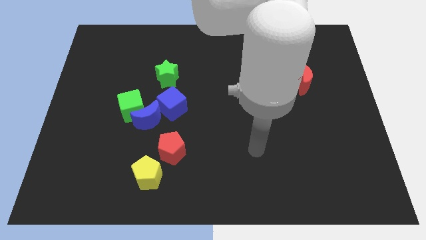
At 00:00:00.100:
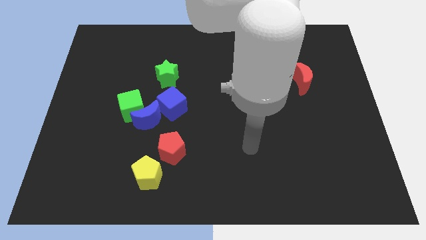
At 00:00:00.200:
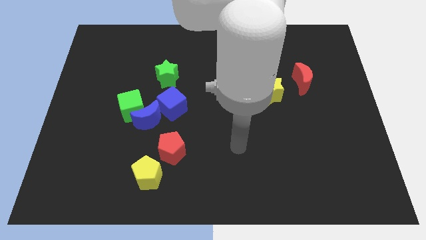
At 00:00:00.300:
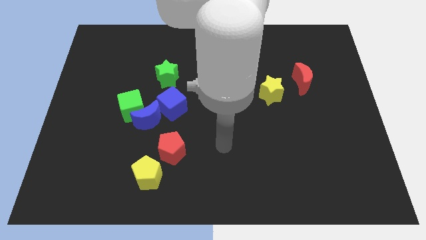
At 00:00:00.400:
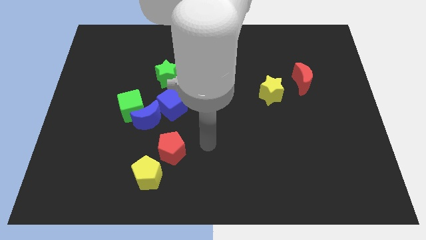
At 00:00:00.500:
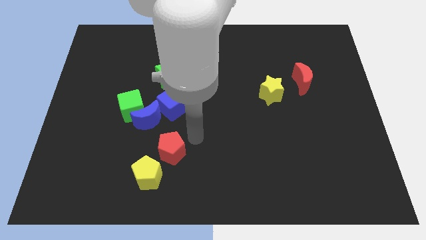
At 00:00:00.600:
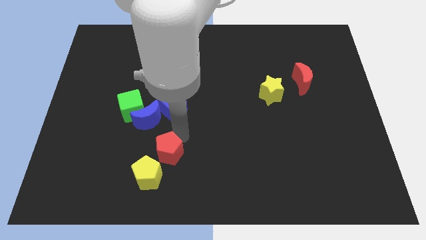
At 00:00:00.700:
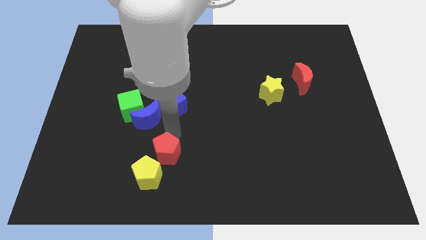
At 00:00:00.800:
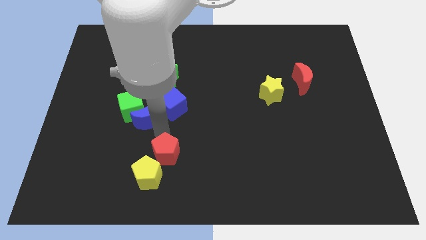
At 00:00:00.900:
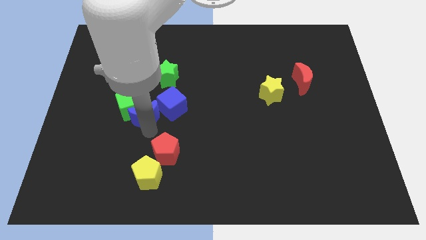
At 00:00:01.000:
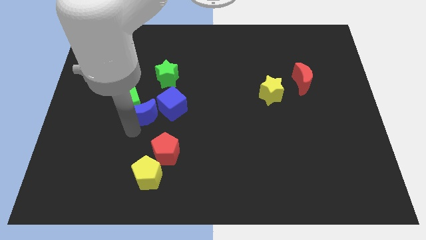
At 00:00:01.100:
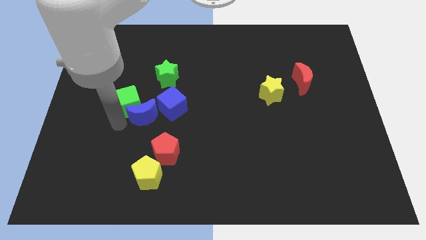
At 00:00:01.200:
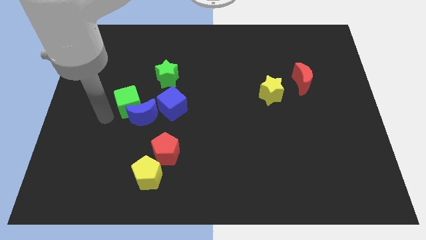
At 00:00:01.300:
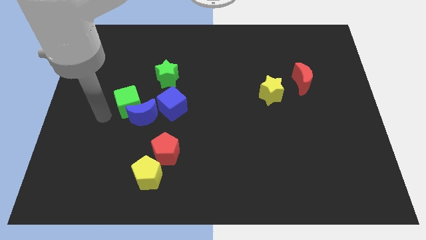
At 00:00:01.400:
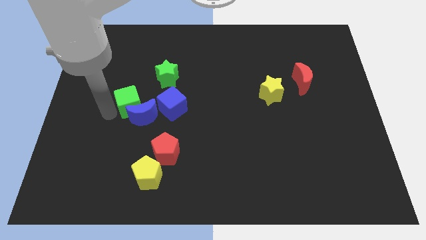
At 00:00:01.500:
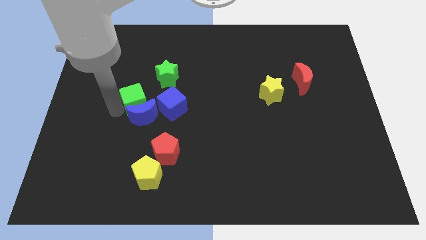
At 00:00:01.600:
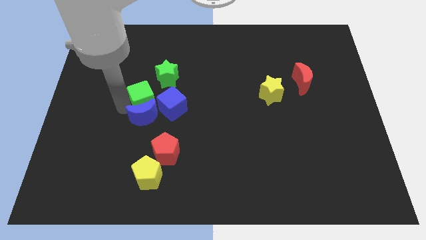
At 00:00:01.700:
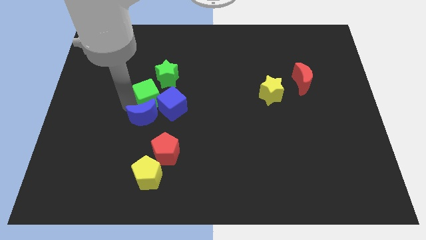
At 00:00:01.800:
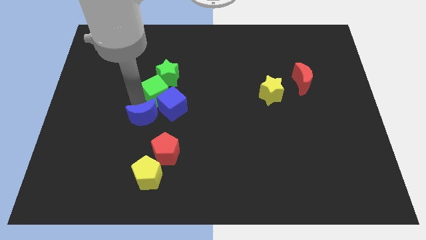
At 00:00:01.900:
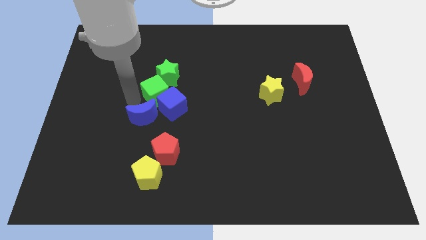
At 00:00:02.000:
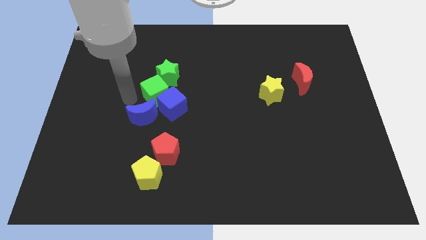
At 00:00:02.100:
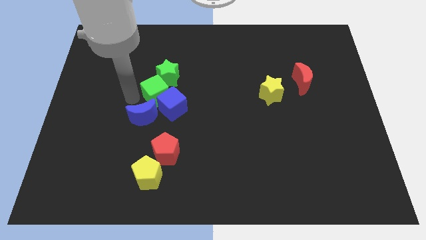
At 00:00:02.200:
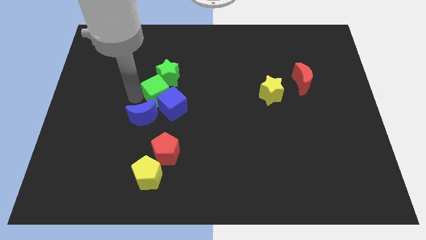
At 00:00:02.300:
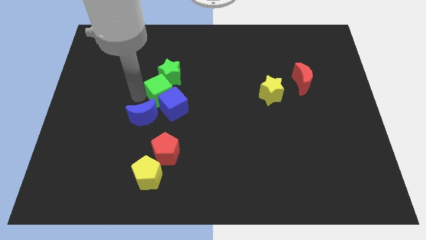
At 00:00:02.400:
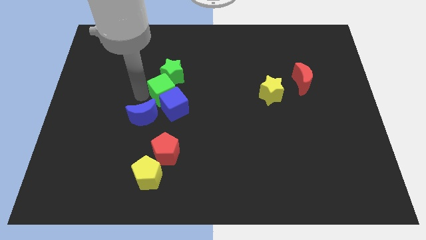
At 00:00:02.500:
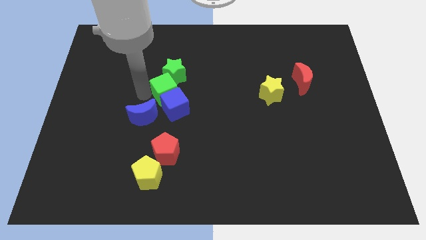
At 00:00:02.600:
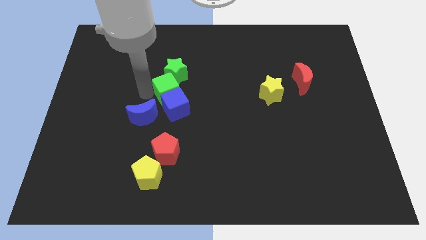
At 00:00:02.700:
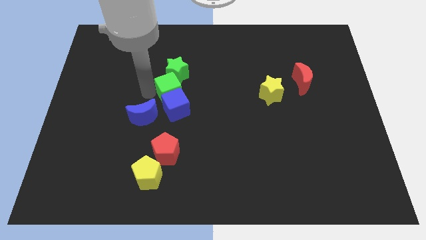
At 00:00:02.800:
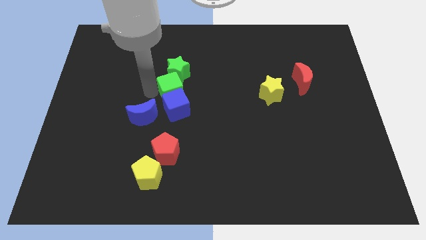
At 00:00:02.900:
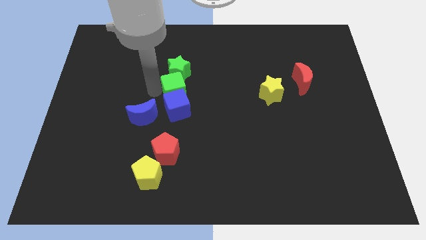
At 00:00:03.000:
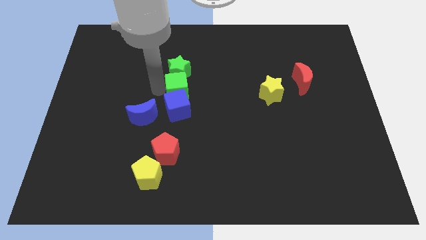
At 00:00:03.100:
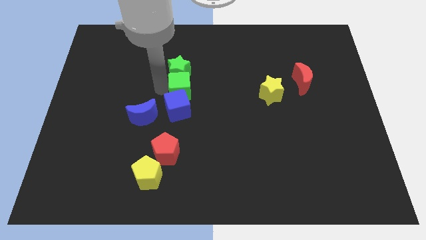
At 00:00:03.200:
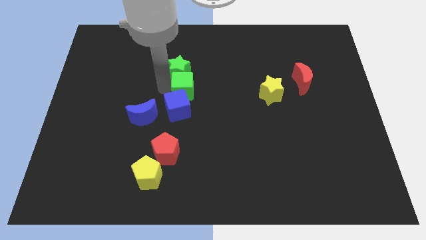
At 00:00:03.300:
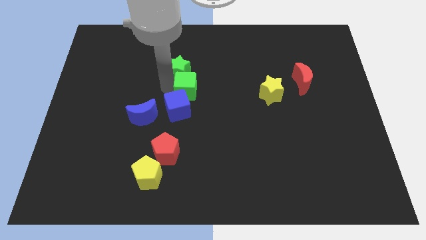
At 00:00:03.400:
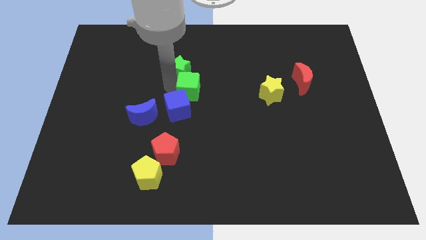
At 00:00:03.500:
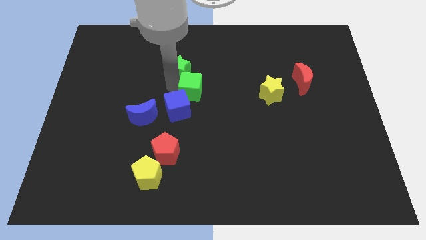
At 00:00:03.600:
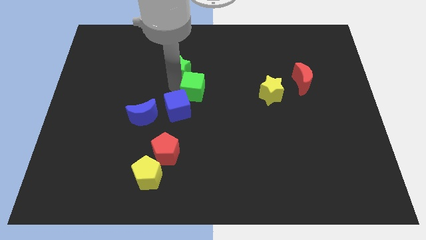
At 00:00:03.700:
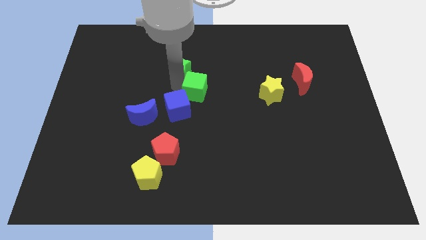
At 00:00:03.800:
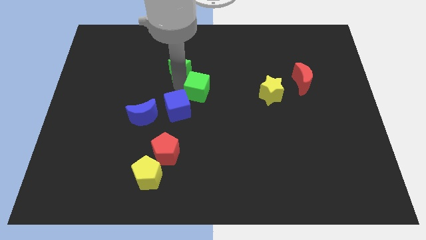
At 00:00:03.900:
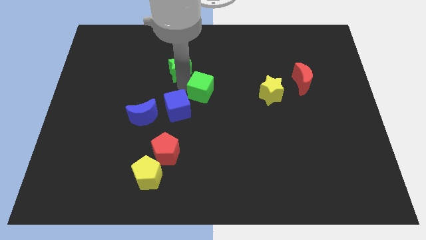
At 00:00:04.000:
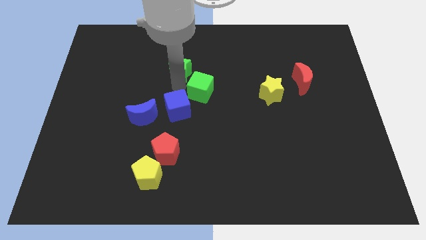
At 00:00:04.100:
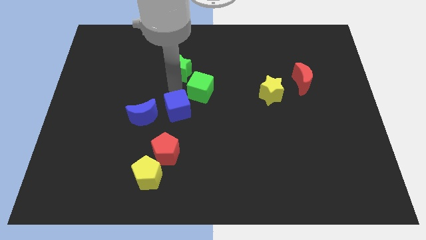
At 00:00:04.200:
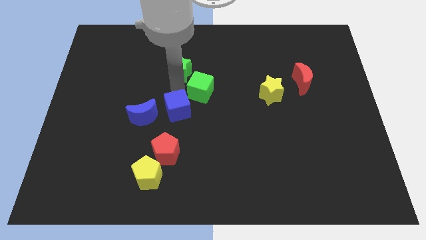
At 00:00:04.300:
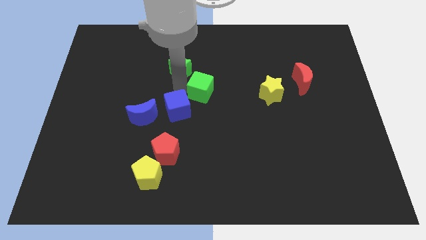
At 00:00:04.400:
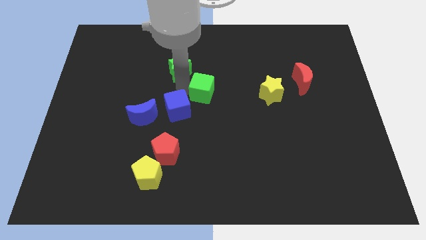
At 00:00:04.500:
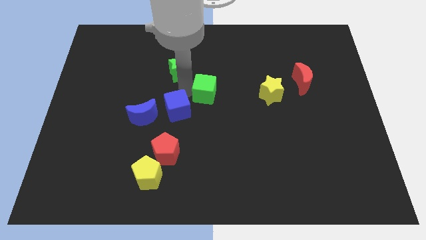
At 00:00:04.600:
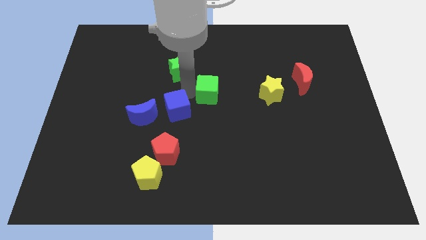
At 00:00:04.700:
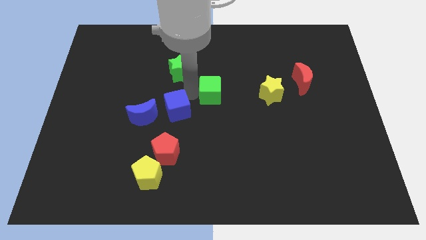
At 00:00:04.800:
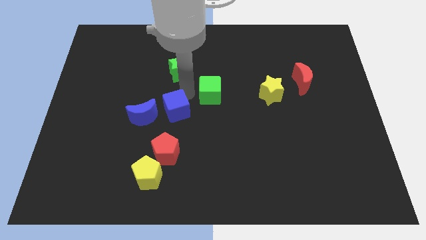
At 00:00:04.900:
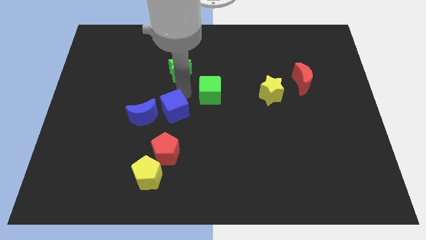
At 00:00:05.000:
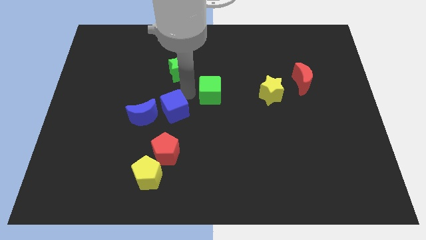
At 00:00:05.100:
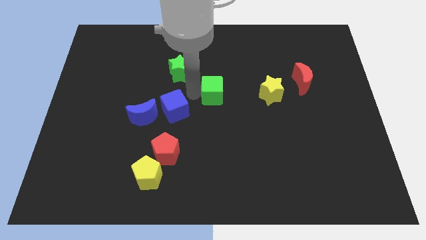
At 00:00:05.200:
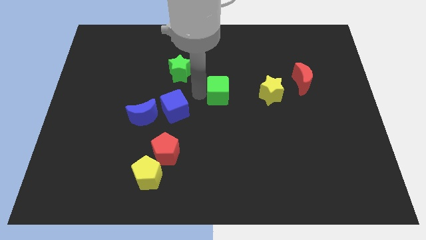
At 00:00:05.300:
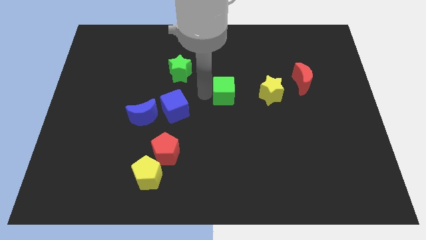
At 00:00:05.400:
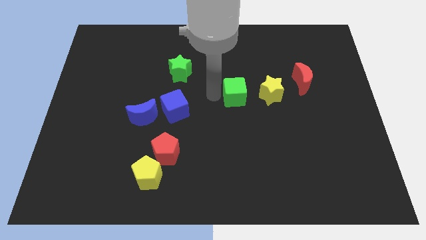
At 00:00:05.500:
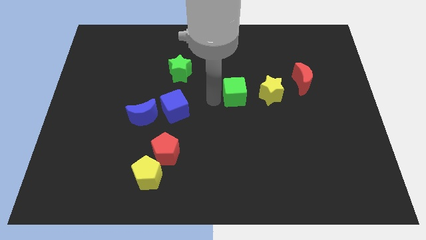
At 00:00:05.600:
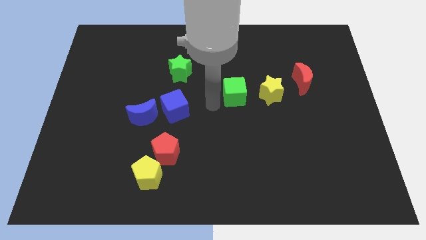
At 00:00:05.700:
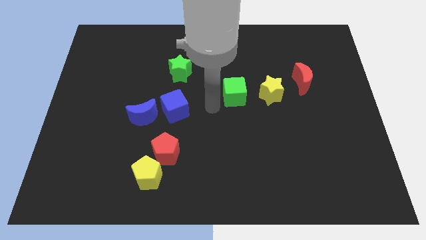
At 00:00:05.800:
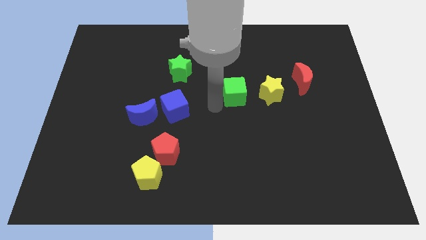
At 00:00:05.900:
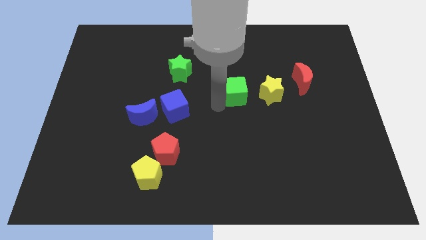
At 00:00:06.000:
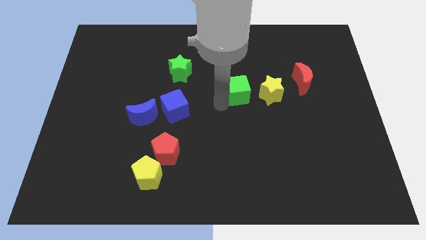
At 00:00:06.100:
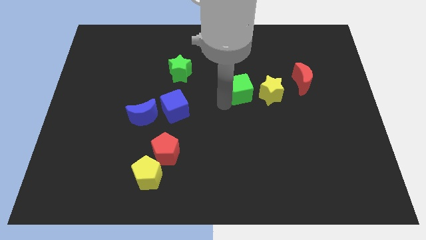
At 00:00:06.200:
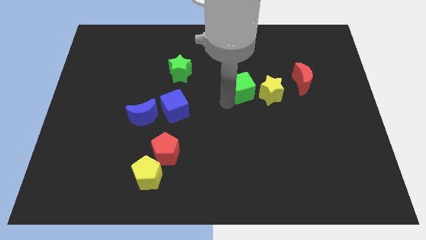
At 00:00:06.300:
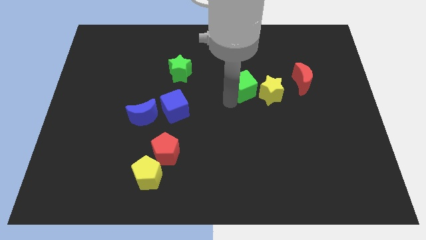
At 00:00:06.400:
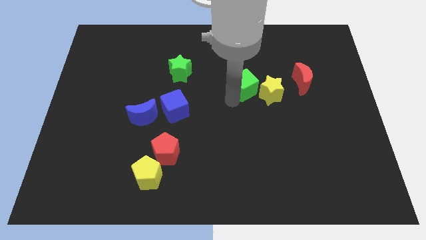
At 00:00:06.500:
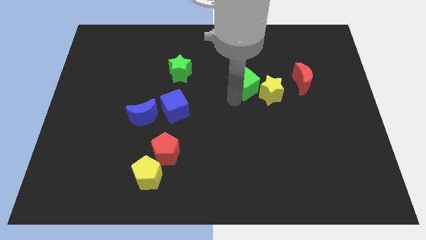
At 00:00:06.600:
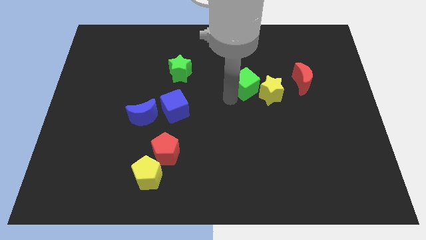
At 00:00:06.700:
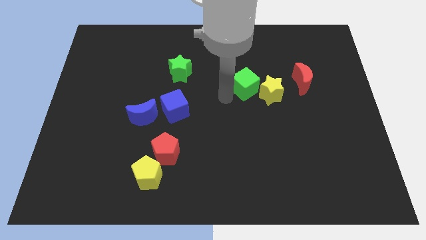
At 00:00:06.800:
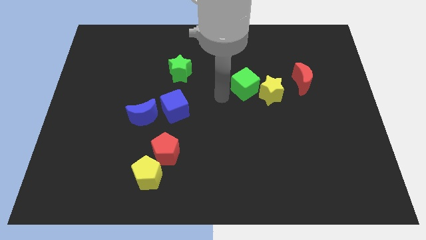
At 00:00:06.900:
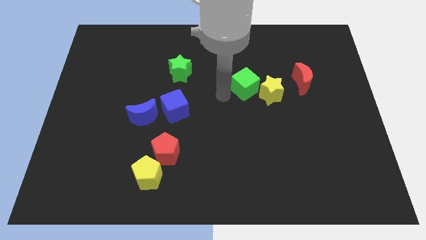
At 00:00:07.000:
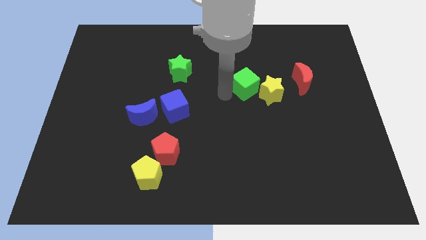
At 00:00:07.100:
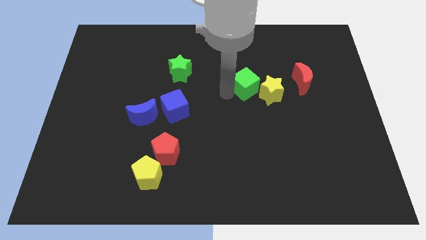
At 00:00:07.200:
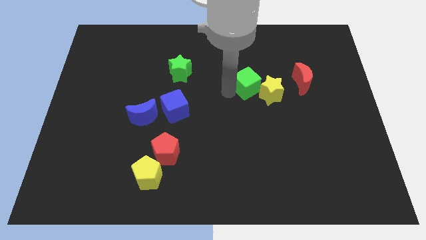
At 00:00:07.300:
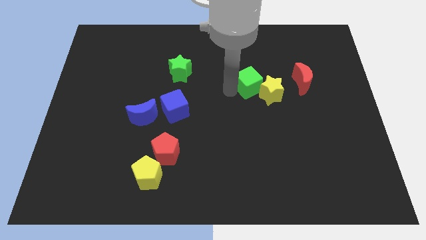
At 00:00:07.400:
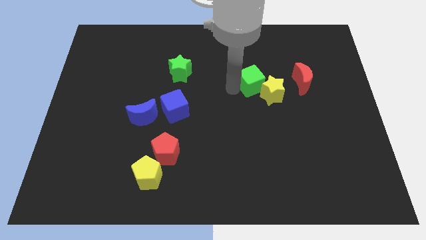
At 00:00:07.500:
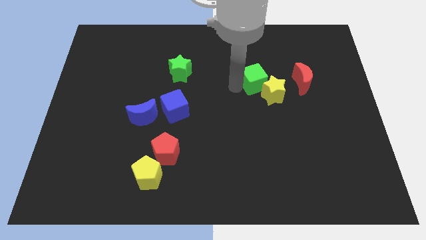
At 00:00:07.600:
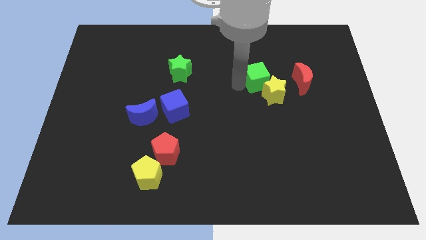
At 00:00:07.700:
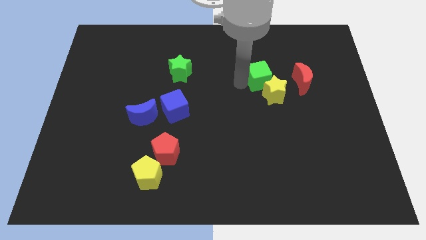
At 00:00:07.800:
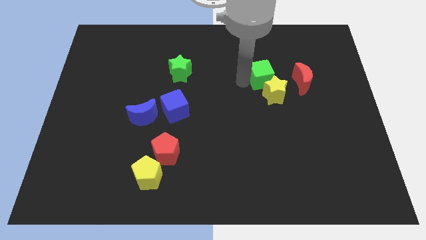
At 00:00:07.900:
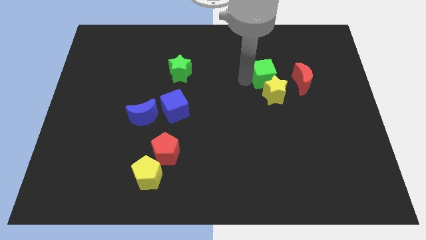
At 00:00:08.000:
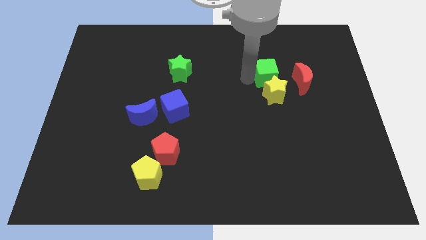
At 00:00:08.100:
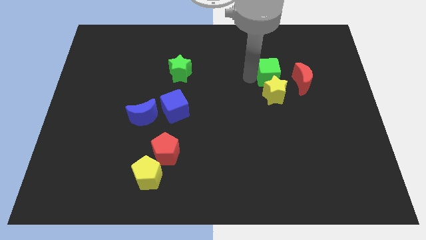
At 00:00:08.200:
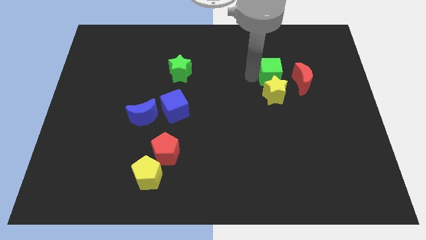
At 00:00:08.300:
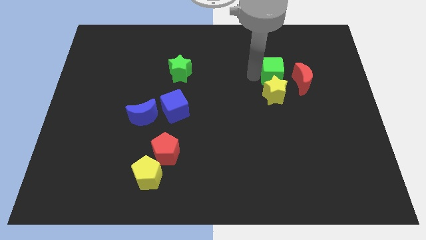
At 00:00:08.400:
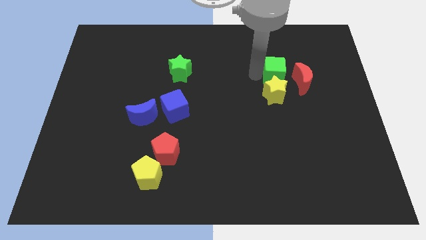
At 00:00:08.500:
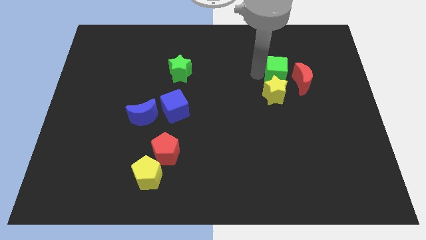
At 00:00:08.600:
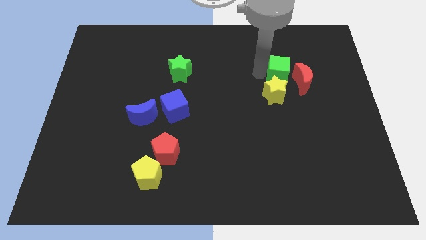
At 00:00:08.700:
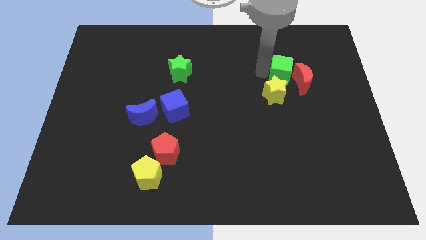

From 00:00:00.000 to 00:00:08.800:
move the green cube next to the red moon
